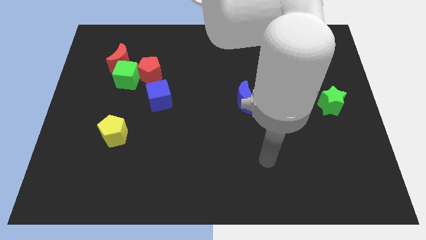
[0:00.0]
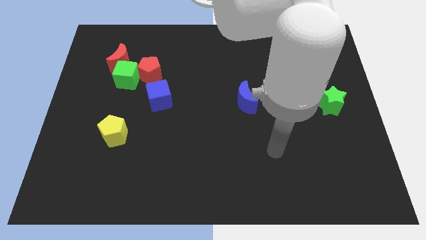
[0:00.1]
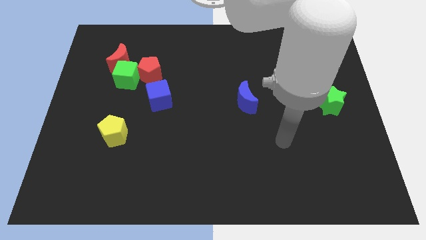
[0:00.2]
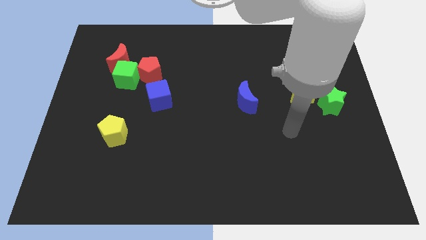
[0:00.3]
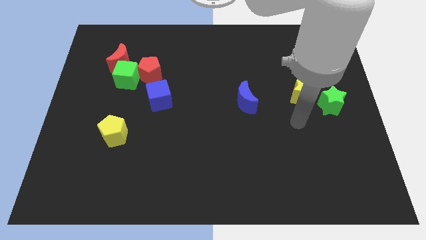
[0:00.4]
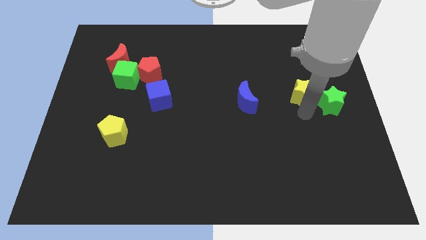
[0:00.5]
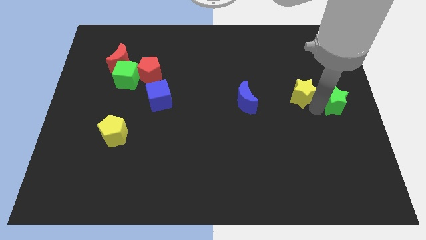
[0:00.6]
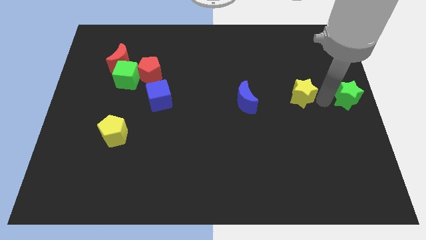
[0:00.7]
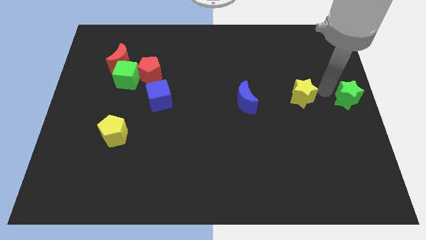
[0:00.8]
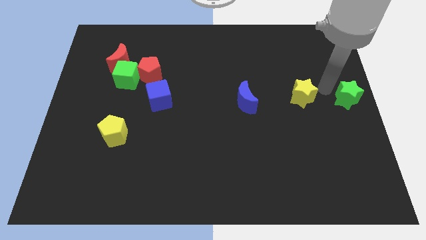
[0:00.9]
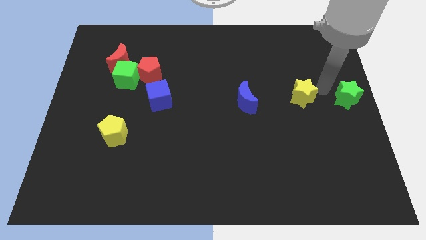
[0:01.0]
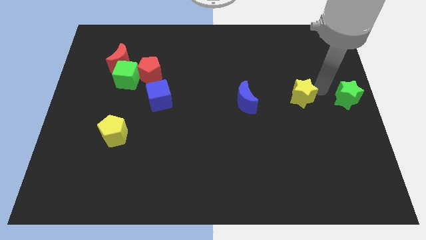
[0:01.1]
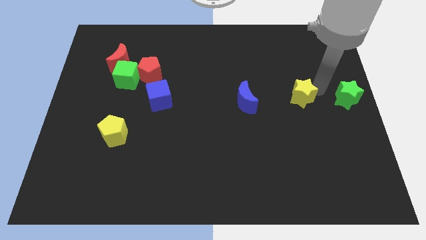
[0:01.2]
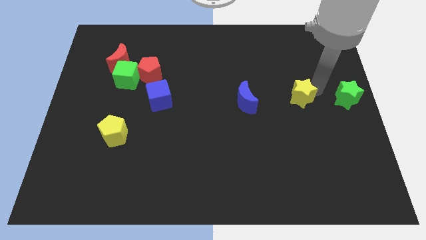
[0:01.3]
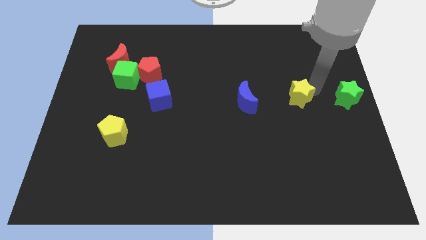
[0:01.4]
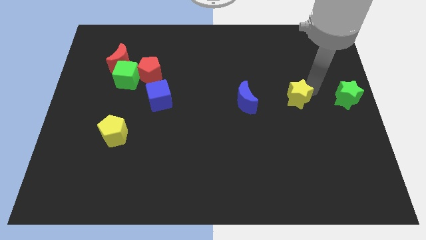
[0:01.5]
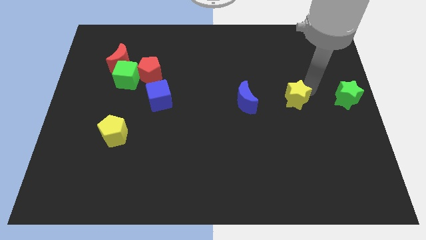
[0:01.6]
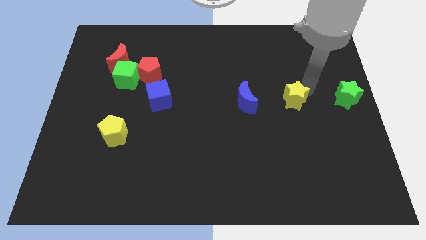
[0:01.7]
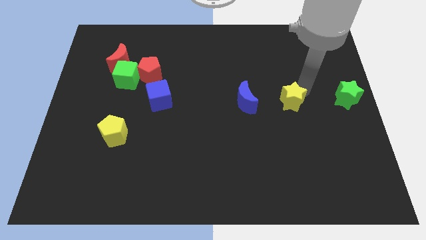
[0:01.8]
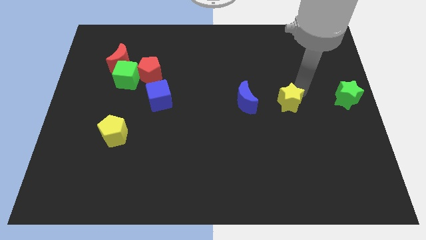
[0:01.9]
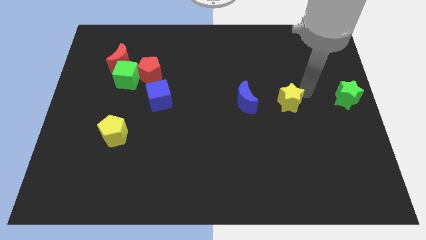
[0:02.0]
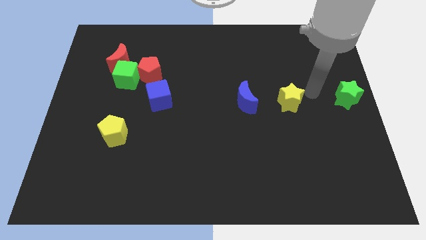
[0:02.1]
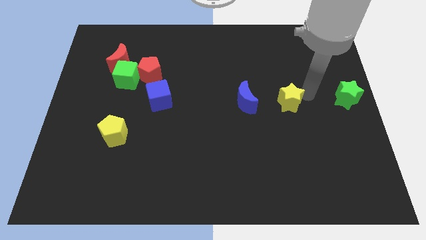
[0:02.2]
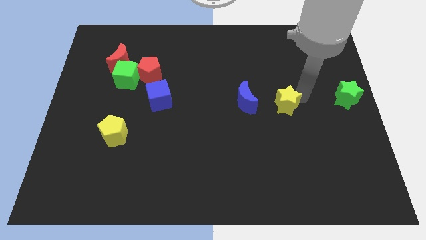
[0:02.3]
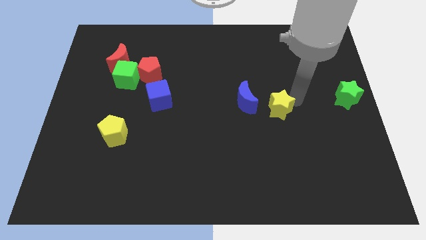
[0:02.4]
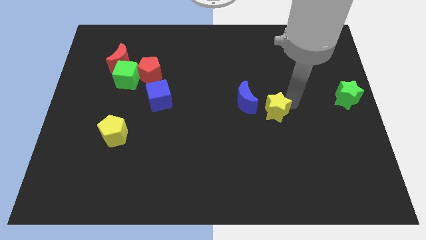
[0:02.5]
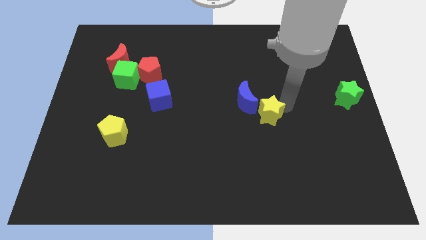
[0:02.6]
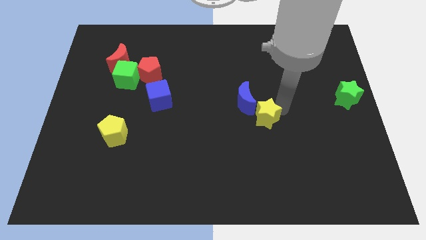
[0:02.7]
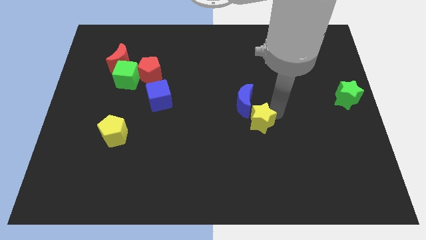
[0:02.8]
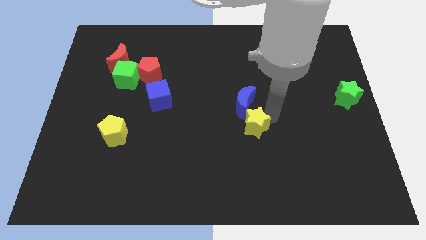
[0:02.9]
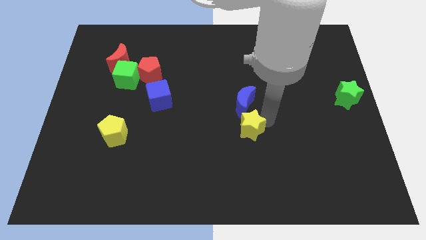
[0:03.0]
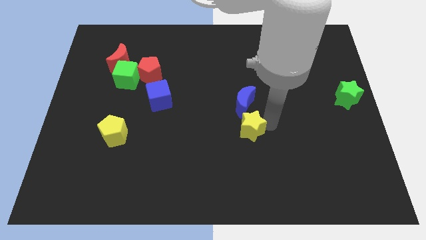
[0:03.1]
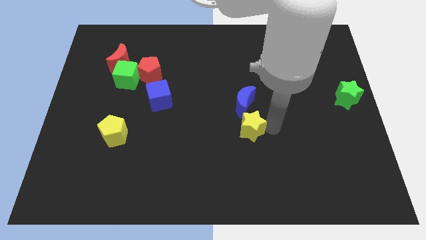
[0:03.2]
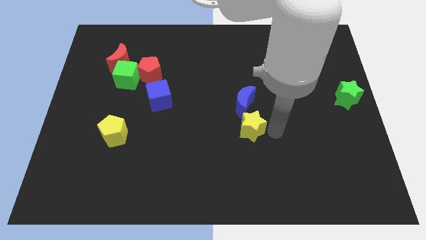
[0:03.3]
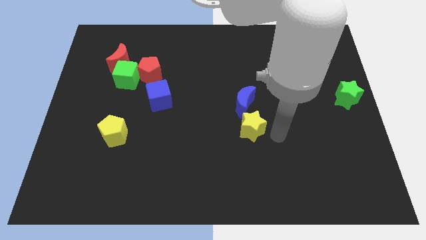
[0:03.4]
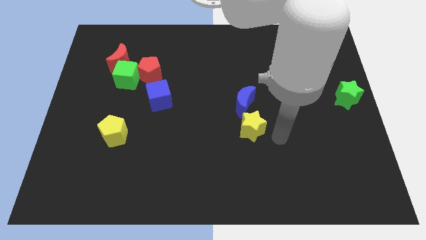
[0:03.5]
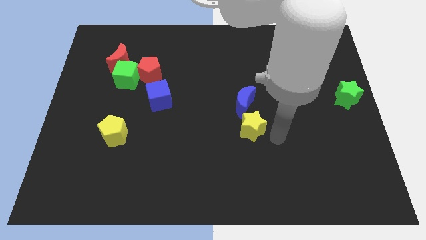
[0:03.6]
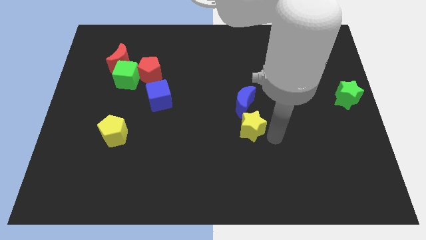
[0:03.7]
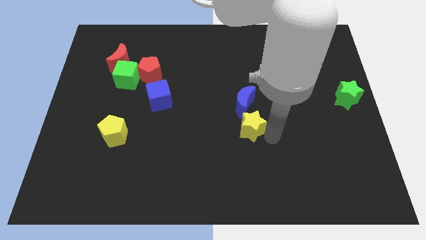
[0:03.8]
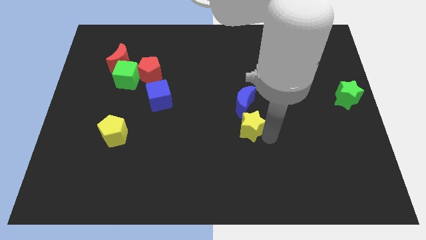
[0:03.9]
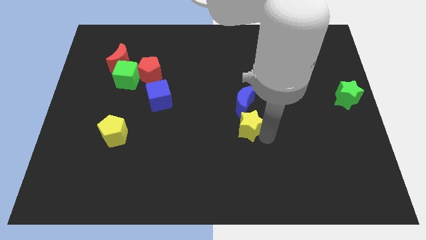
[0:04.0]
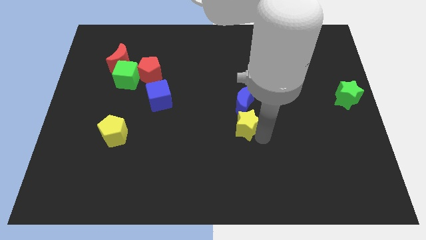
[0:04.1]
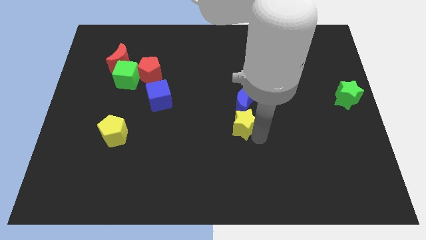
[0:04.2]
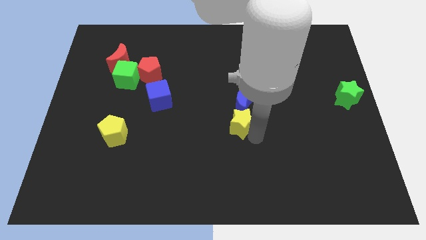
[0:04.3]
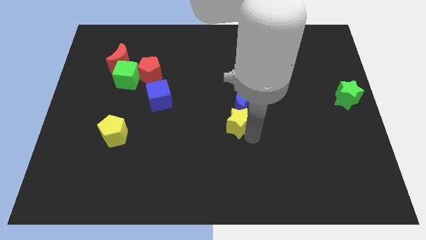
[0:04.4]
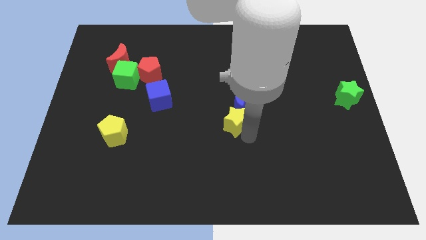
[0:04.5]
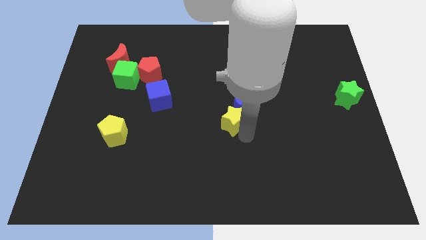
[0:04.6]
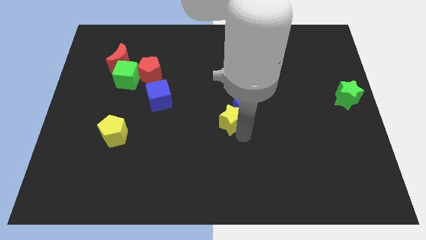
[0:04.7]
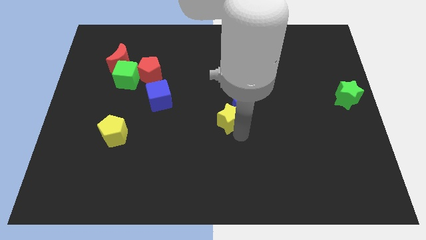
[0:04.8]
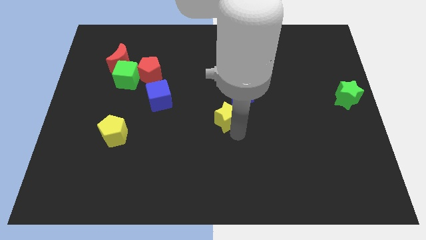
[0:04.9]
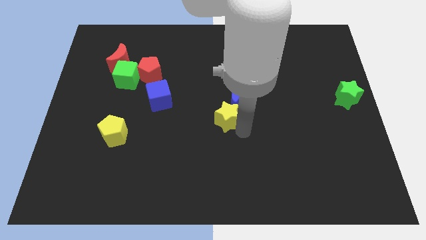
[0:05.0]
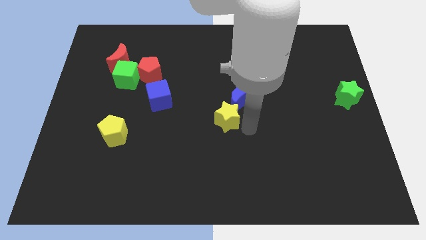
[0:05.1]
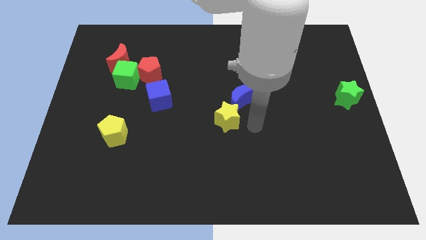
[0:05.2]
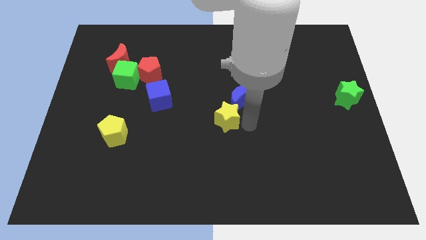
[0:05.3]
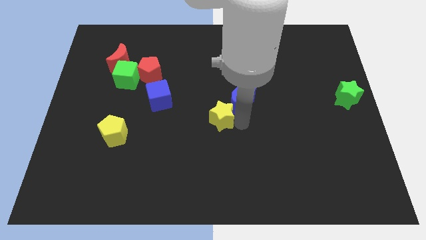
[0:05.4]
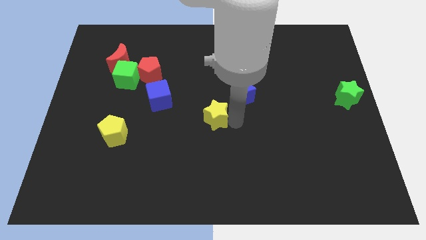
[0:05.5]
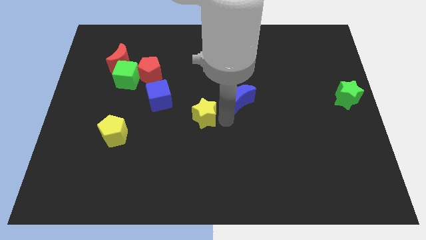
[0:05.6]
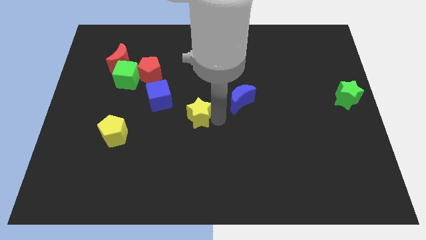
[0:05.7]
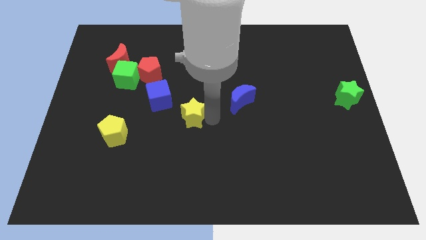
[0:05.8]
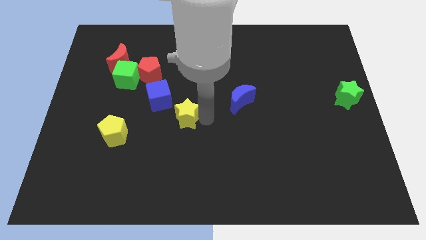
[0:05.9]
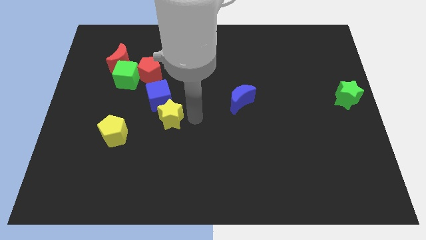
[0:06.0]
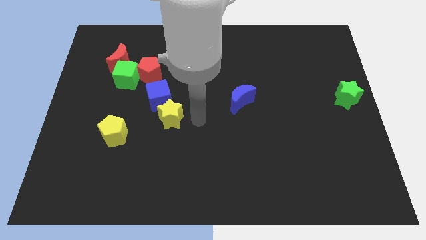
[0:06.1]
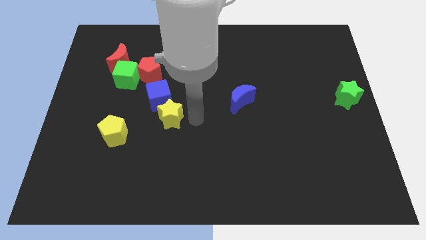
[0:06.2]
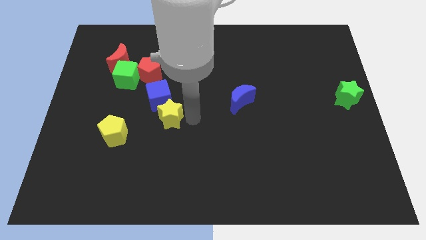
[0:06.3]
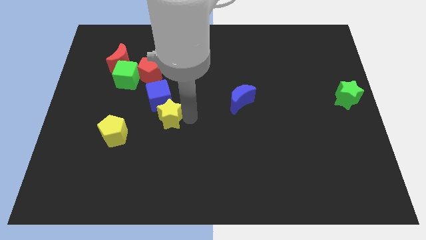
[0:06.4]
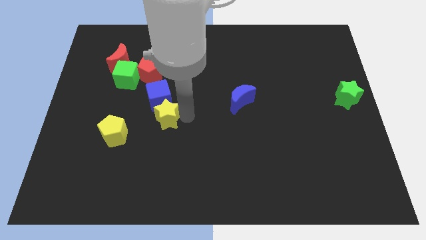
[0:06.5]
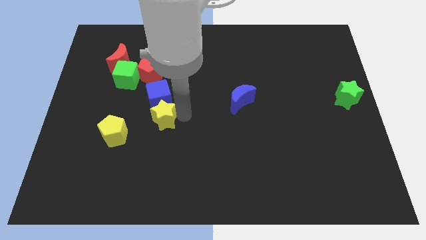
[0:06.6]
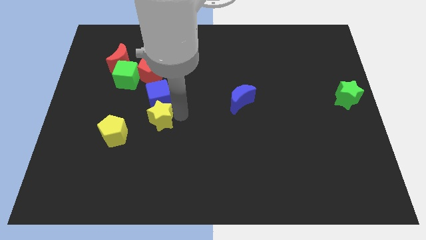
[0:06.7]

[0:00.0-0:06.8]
slide the yellow star diagonally up and to the right of the yellow pentagon
